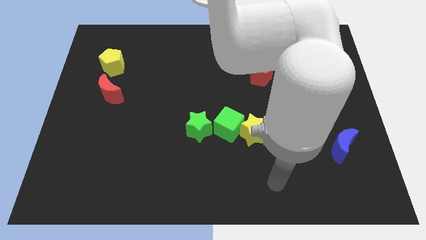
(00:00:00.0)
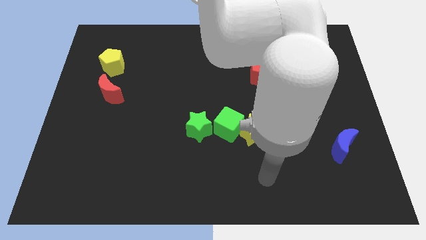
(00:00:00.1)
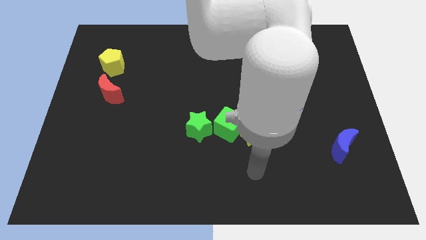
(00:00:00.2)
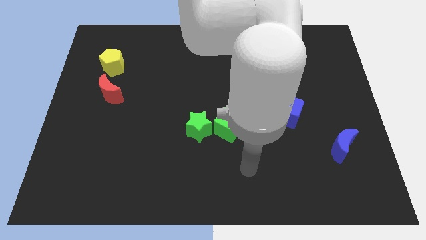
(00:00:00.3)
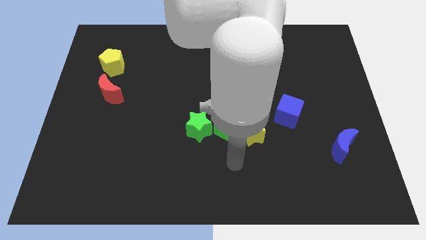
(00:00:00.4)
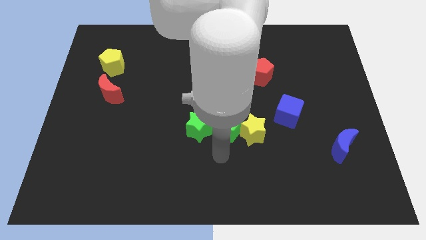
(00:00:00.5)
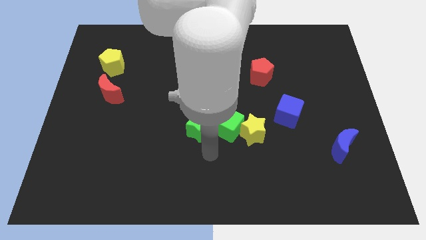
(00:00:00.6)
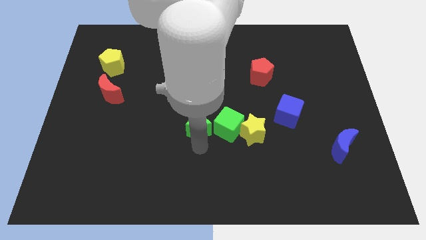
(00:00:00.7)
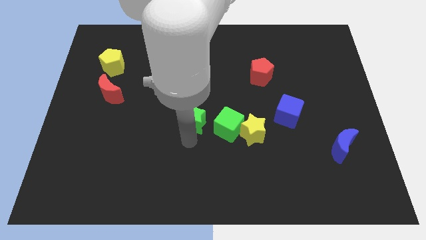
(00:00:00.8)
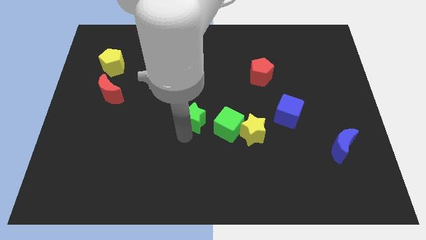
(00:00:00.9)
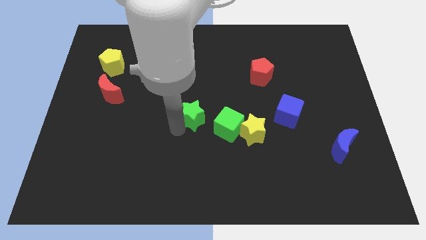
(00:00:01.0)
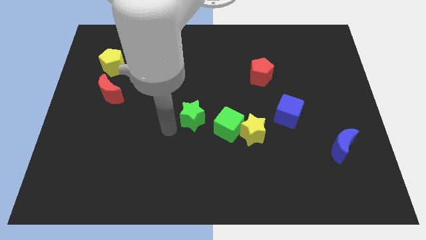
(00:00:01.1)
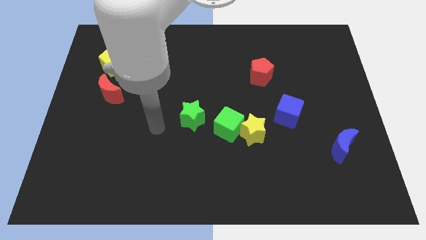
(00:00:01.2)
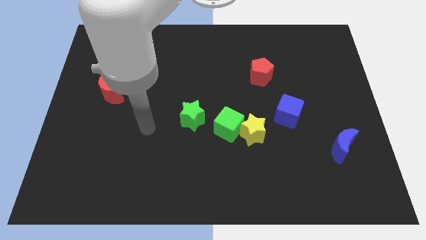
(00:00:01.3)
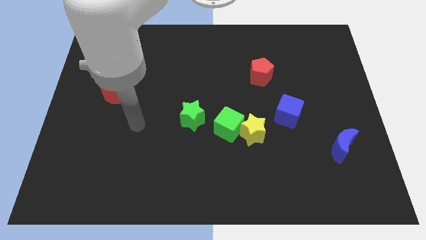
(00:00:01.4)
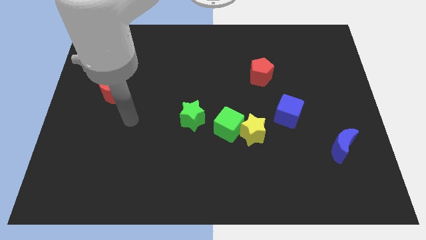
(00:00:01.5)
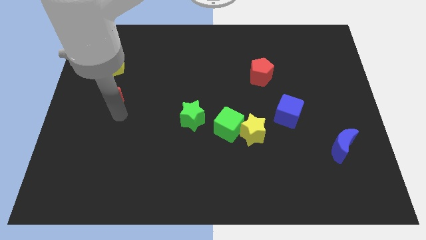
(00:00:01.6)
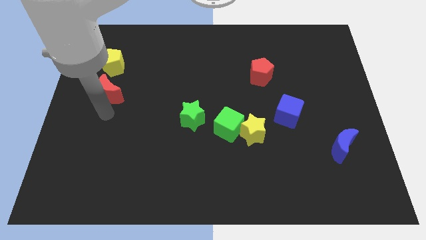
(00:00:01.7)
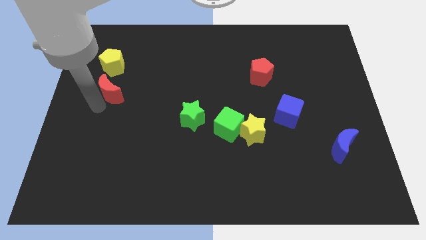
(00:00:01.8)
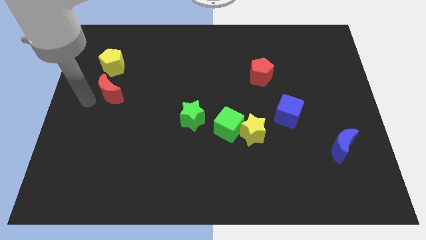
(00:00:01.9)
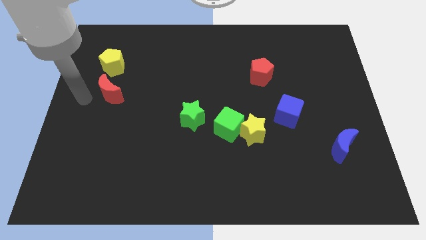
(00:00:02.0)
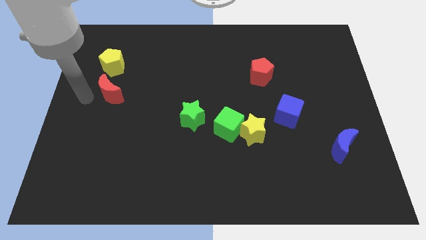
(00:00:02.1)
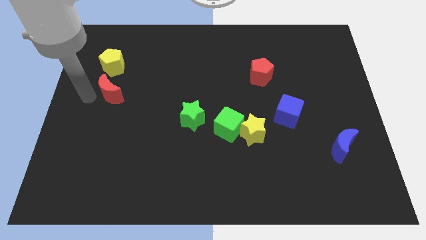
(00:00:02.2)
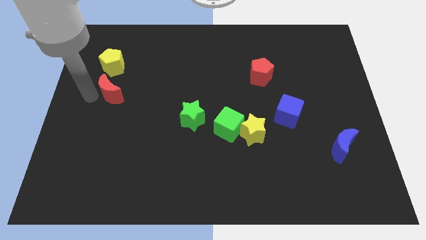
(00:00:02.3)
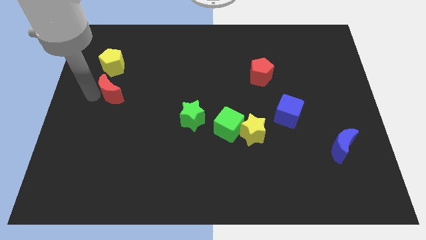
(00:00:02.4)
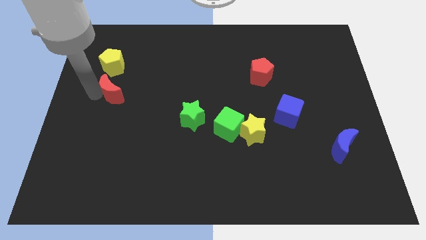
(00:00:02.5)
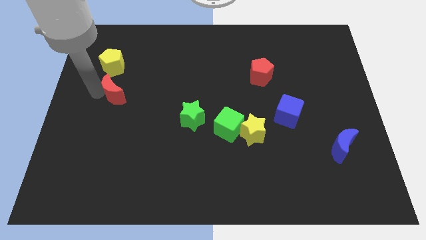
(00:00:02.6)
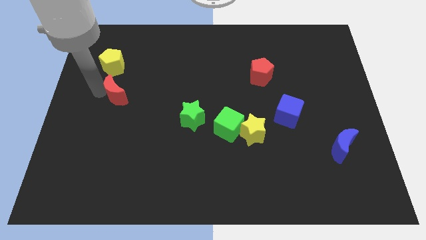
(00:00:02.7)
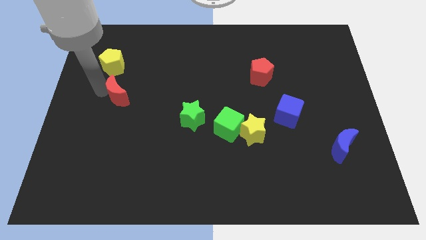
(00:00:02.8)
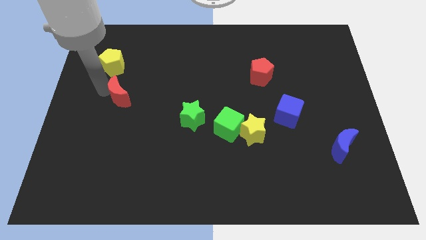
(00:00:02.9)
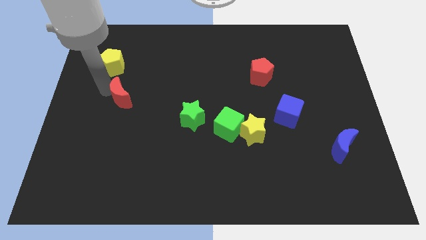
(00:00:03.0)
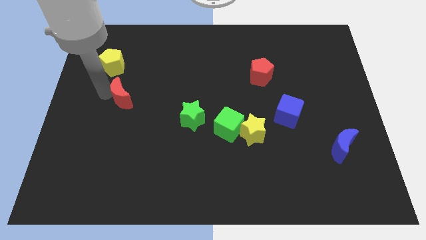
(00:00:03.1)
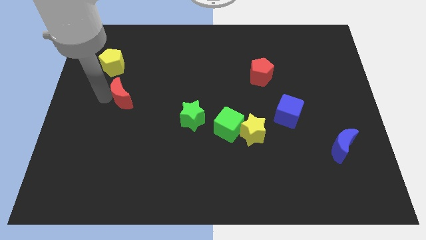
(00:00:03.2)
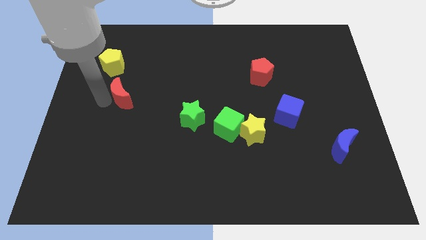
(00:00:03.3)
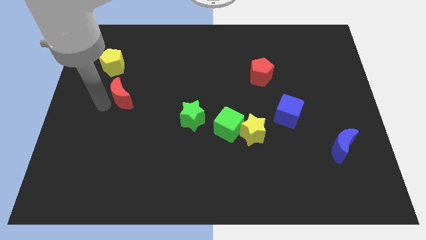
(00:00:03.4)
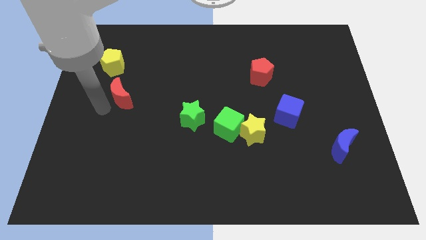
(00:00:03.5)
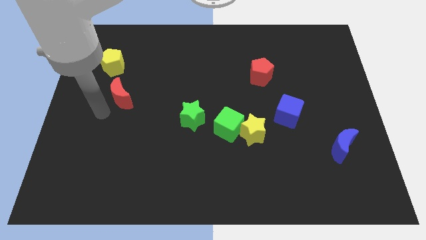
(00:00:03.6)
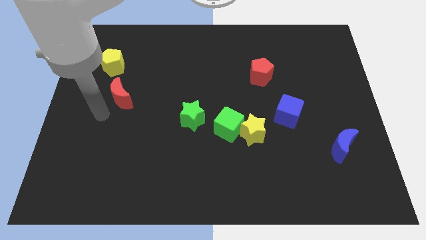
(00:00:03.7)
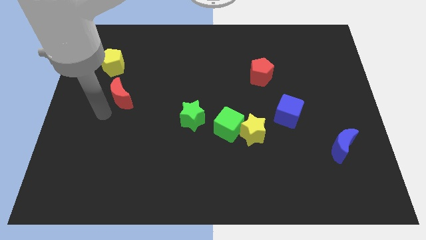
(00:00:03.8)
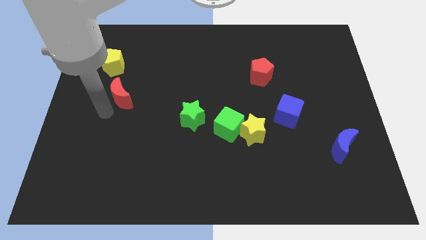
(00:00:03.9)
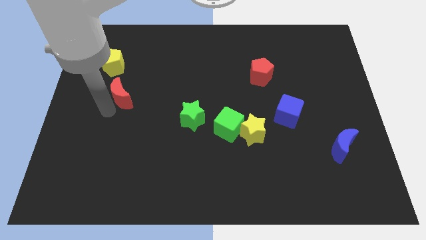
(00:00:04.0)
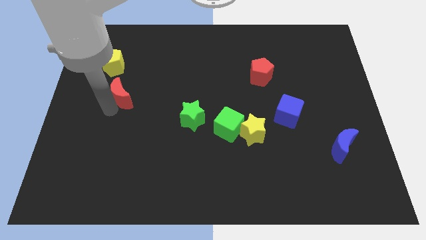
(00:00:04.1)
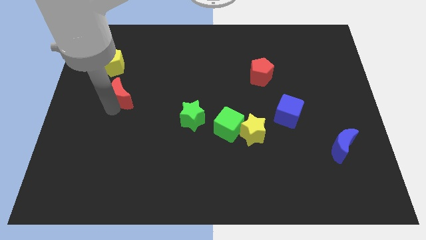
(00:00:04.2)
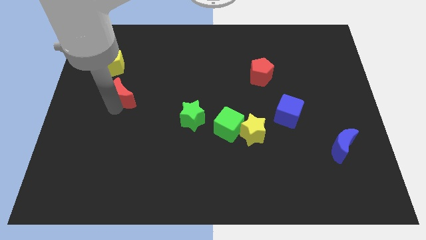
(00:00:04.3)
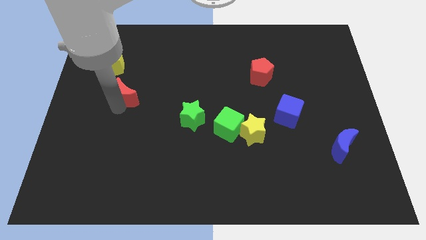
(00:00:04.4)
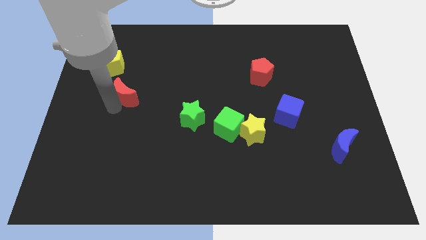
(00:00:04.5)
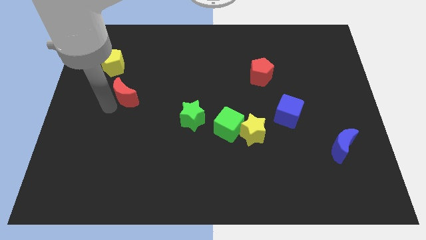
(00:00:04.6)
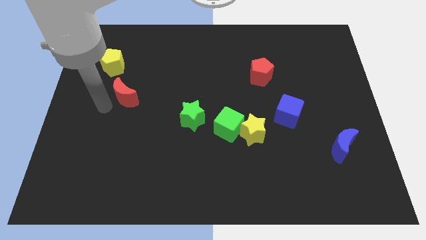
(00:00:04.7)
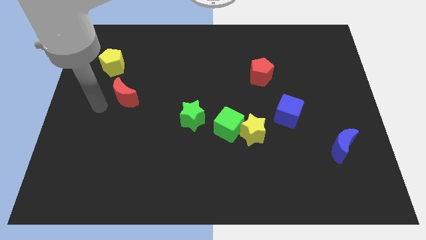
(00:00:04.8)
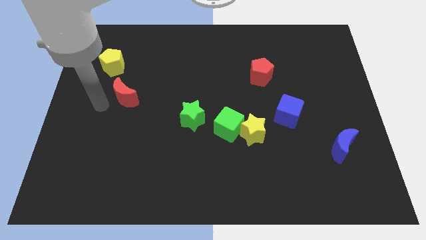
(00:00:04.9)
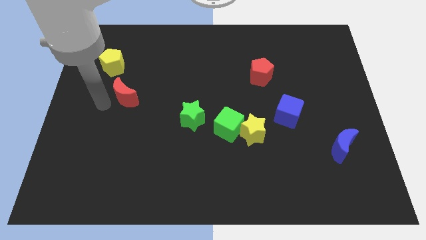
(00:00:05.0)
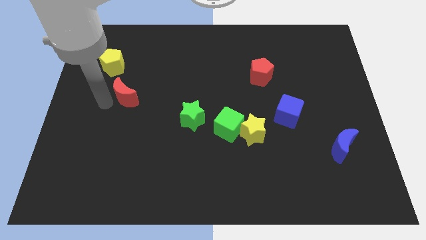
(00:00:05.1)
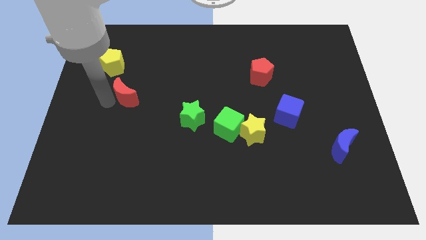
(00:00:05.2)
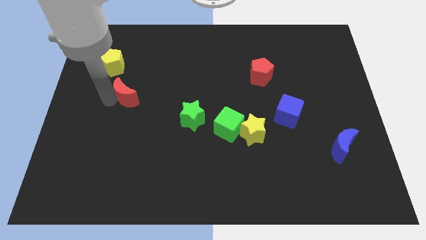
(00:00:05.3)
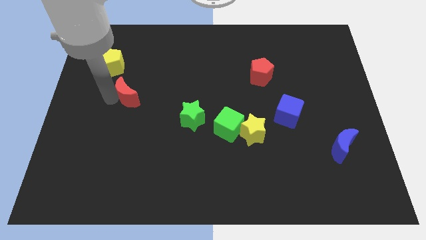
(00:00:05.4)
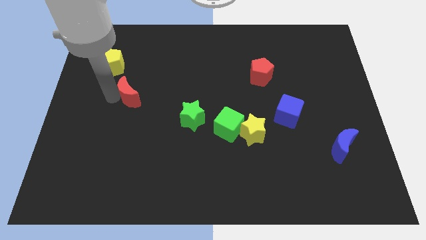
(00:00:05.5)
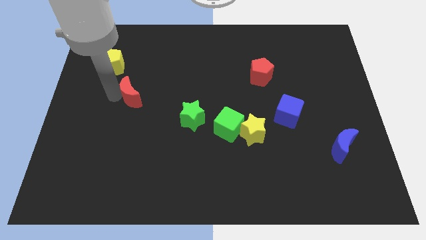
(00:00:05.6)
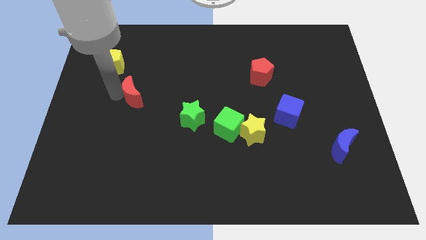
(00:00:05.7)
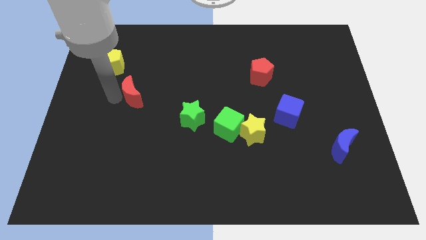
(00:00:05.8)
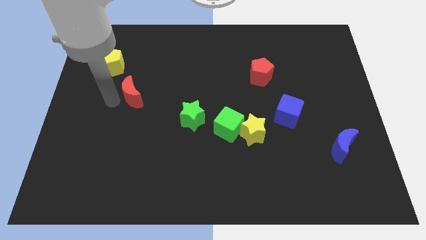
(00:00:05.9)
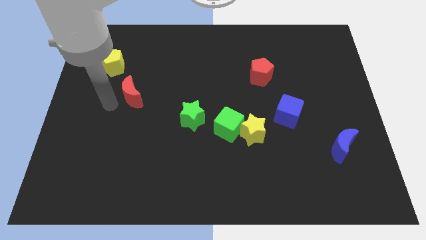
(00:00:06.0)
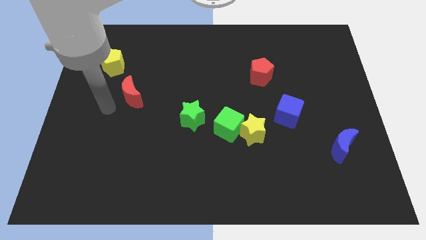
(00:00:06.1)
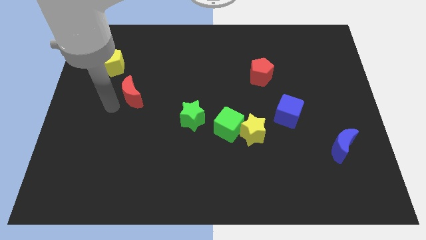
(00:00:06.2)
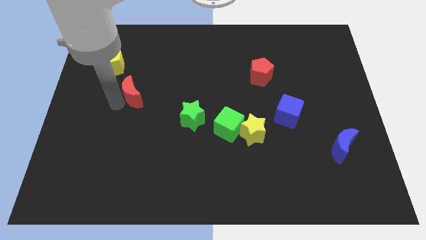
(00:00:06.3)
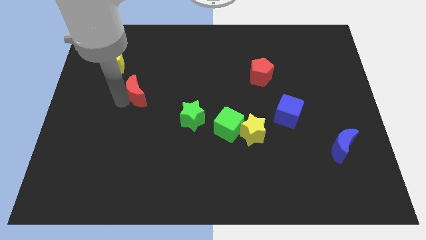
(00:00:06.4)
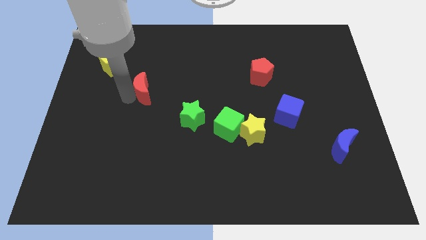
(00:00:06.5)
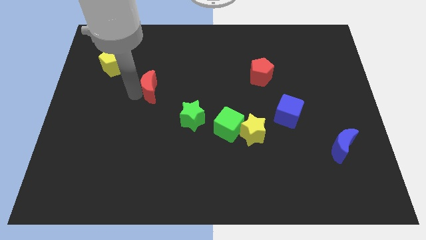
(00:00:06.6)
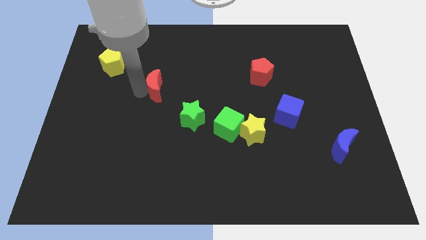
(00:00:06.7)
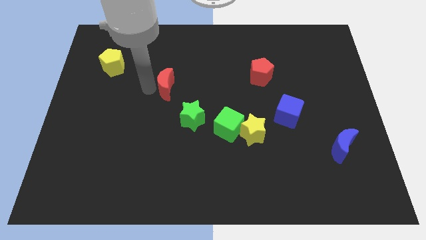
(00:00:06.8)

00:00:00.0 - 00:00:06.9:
slide the red moon to the center of the board

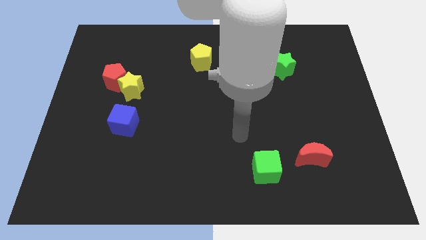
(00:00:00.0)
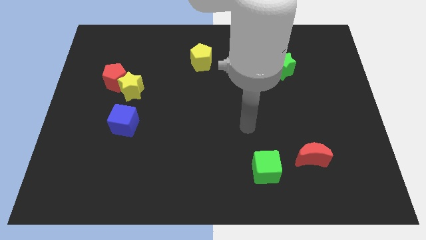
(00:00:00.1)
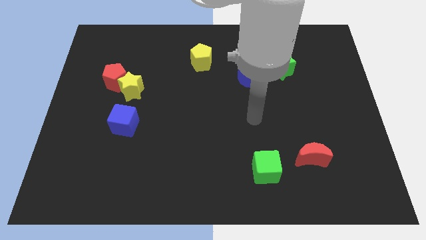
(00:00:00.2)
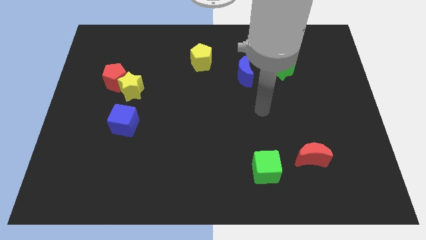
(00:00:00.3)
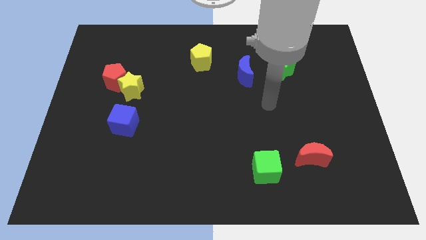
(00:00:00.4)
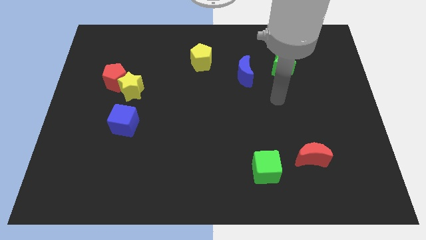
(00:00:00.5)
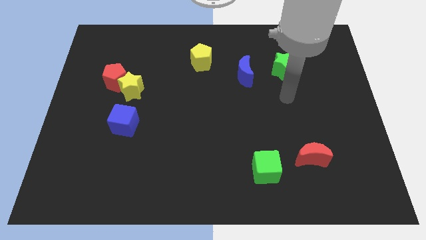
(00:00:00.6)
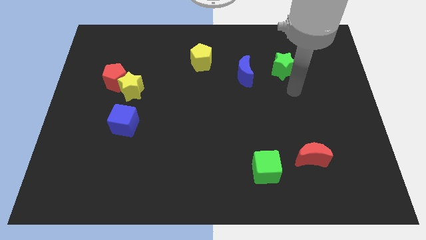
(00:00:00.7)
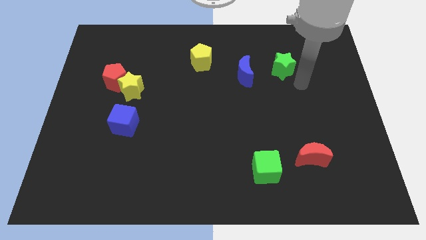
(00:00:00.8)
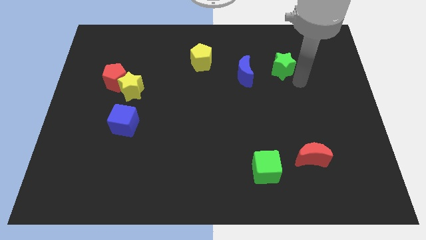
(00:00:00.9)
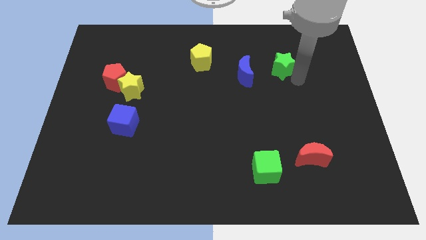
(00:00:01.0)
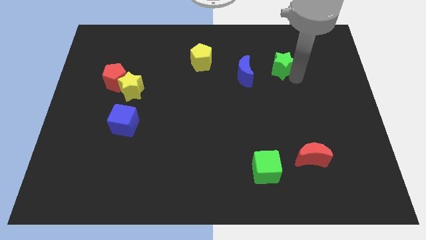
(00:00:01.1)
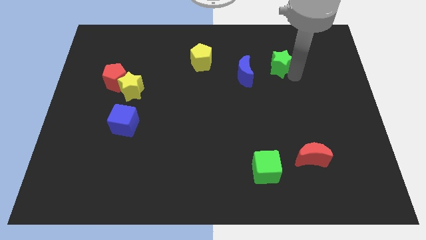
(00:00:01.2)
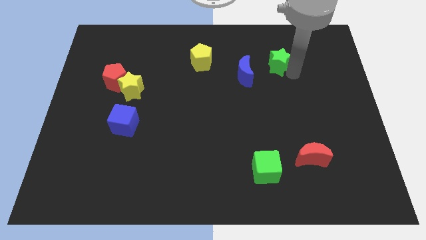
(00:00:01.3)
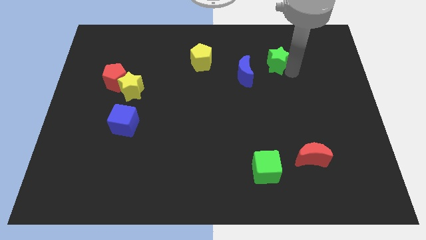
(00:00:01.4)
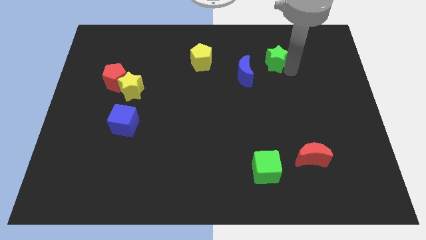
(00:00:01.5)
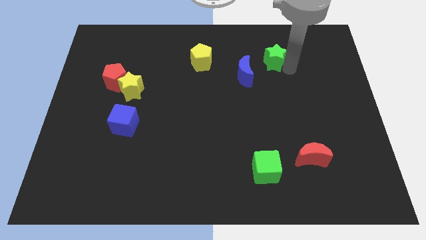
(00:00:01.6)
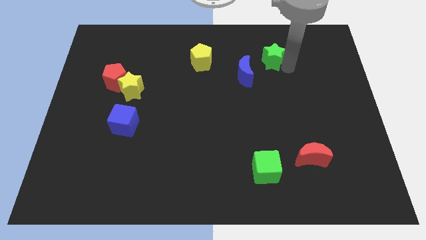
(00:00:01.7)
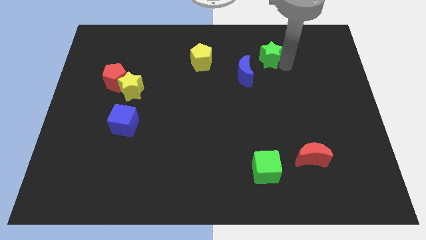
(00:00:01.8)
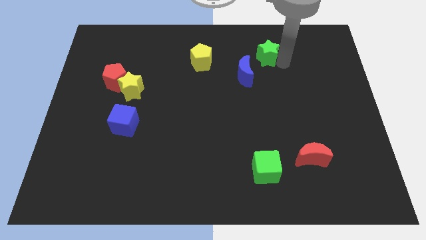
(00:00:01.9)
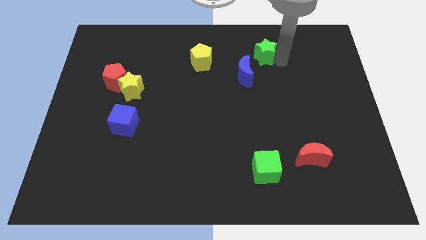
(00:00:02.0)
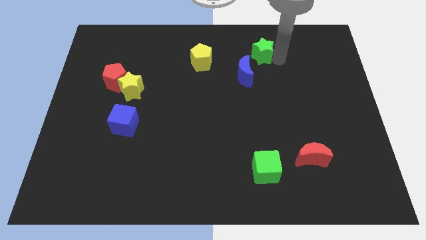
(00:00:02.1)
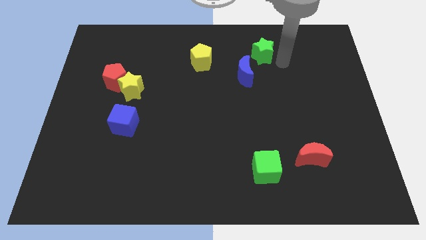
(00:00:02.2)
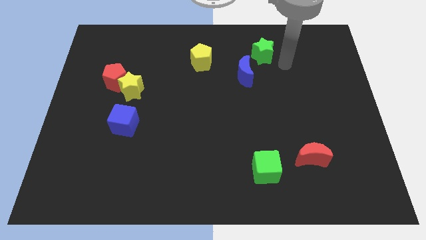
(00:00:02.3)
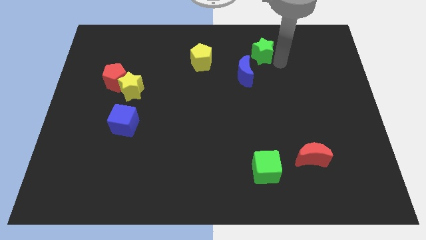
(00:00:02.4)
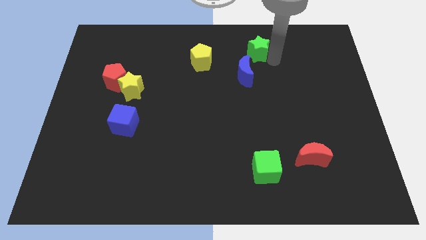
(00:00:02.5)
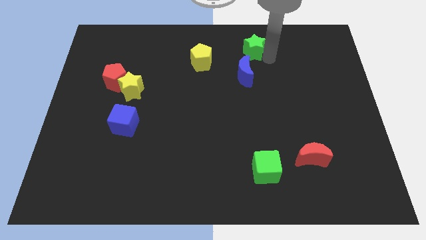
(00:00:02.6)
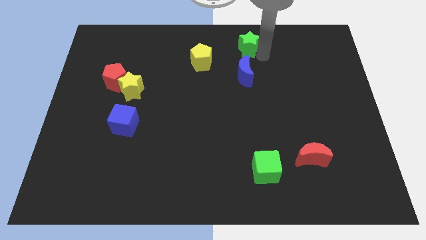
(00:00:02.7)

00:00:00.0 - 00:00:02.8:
put the green star to the top
